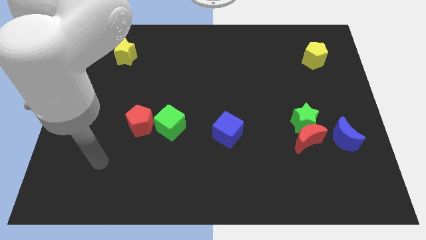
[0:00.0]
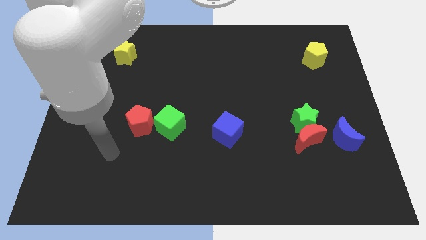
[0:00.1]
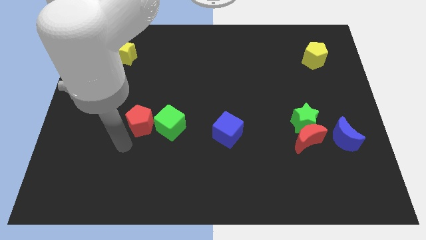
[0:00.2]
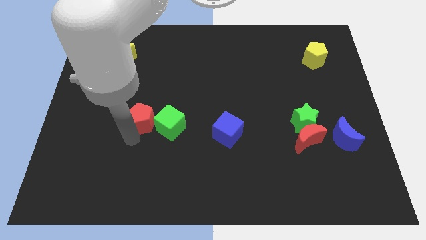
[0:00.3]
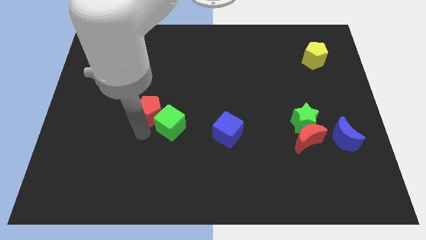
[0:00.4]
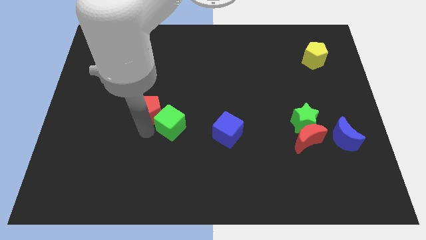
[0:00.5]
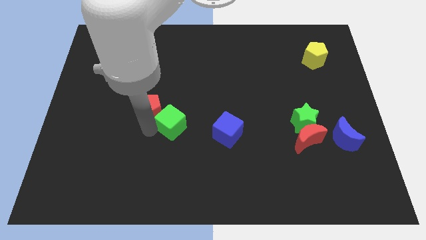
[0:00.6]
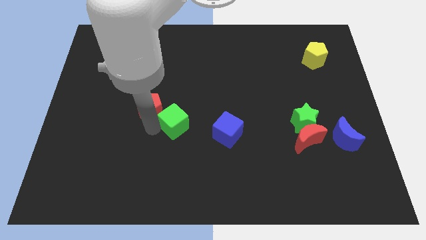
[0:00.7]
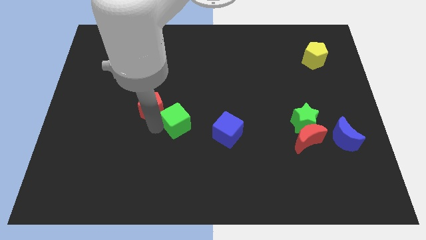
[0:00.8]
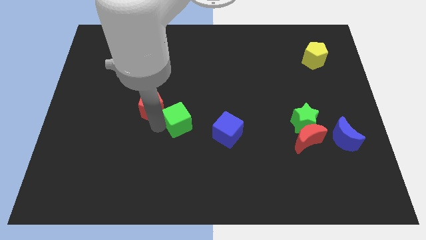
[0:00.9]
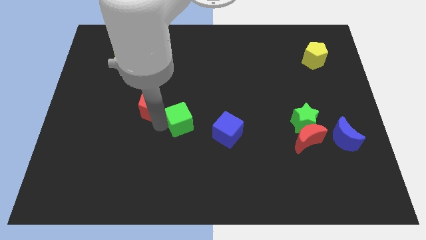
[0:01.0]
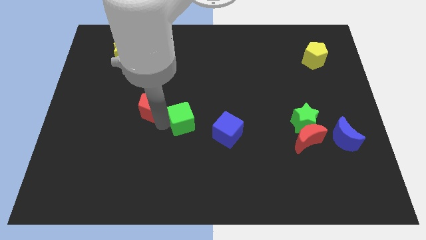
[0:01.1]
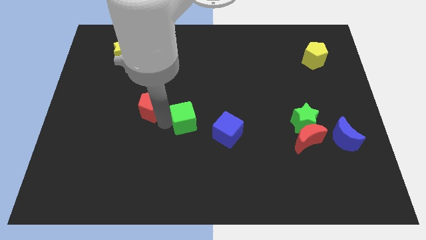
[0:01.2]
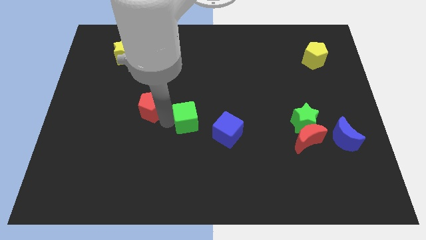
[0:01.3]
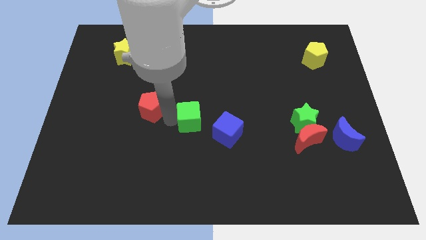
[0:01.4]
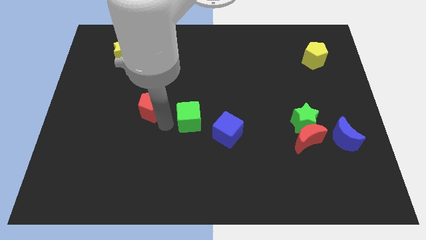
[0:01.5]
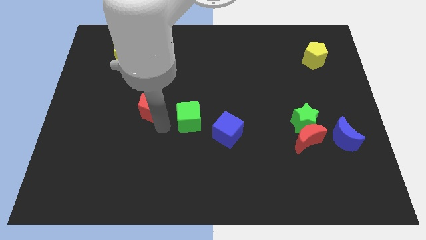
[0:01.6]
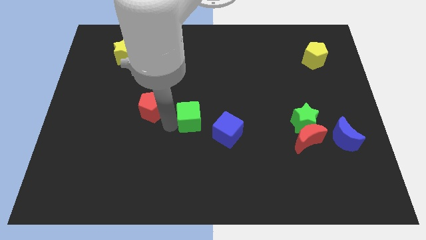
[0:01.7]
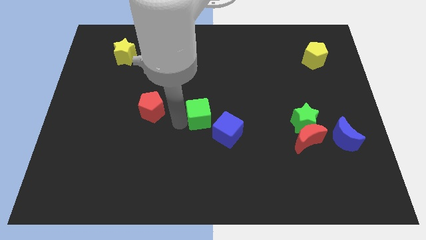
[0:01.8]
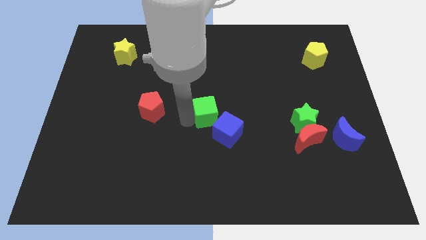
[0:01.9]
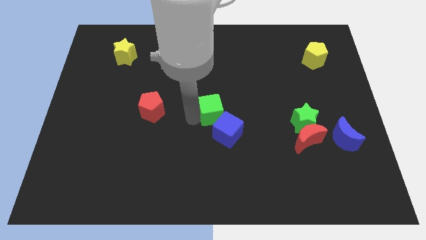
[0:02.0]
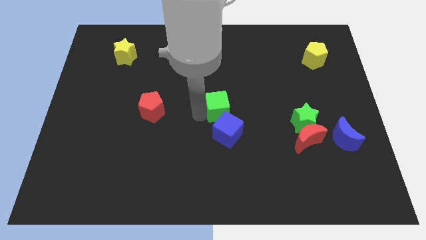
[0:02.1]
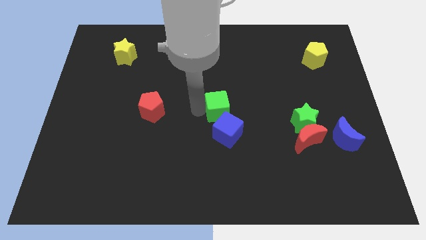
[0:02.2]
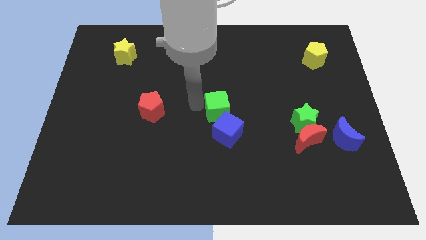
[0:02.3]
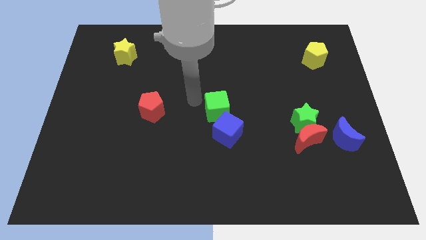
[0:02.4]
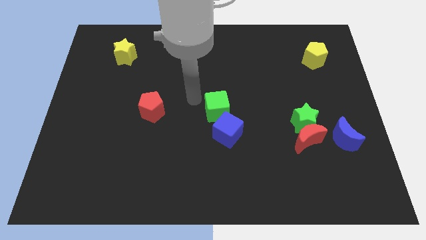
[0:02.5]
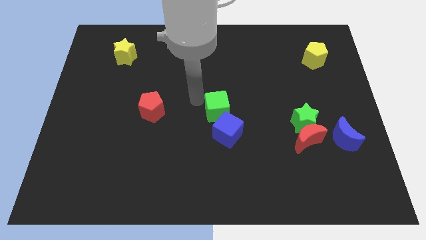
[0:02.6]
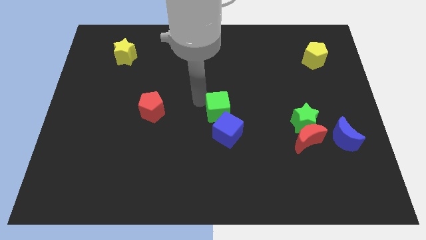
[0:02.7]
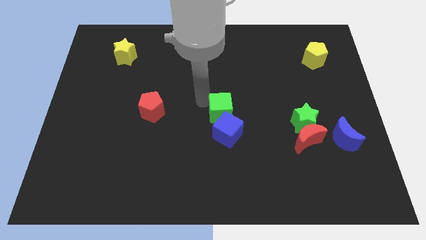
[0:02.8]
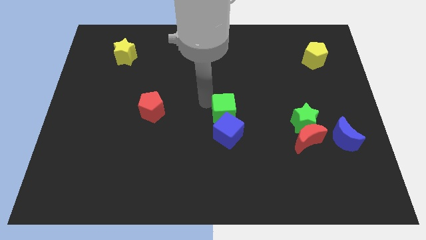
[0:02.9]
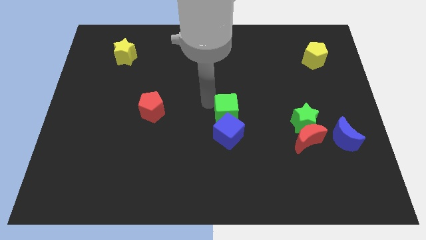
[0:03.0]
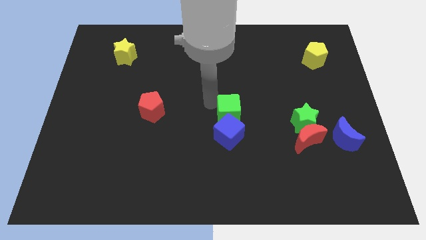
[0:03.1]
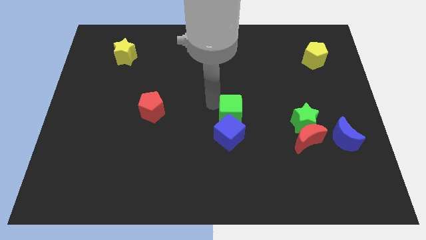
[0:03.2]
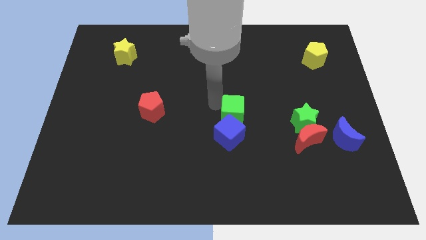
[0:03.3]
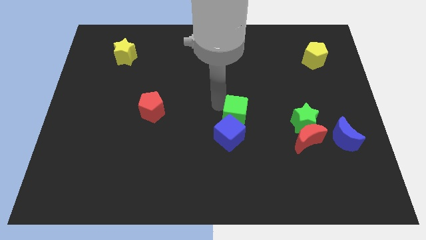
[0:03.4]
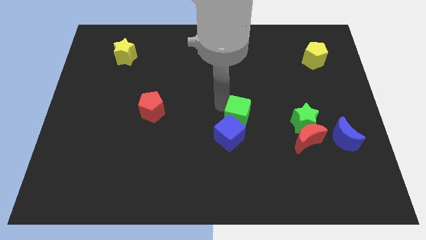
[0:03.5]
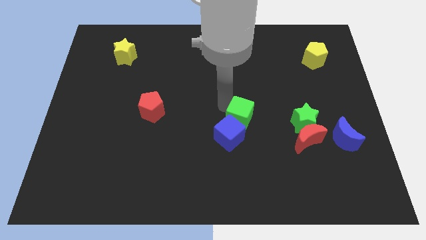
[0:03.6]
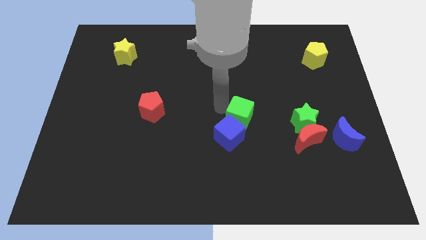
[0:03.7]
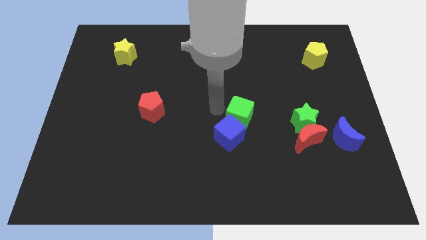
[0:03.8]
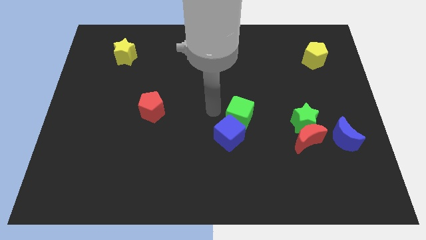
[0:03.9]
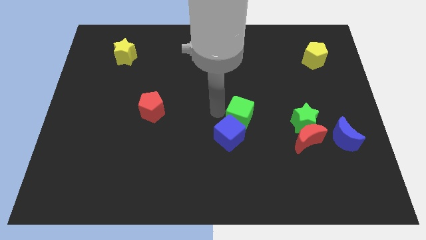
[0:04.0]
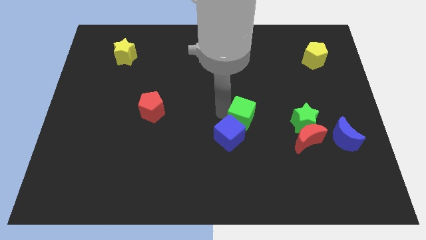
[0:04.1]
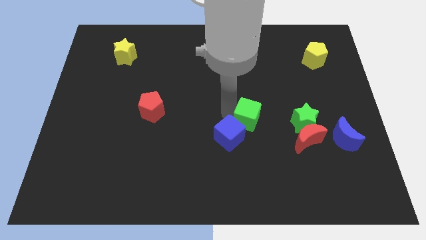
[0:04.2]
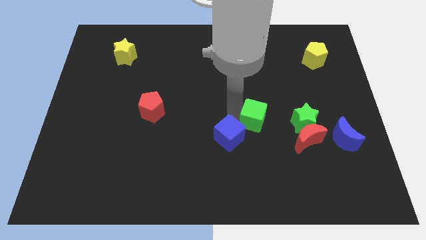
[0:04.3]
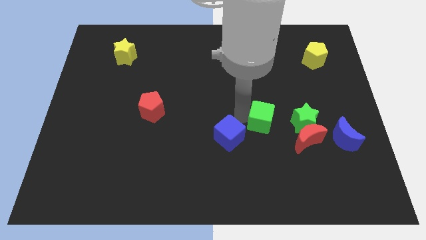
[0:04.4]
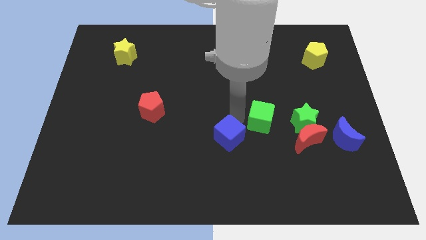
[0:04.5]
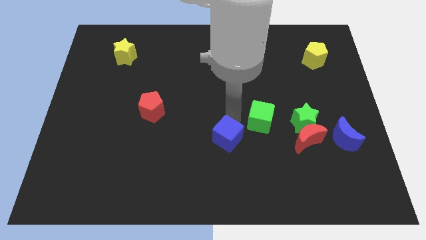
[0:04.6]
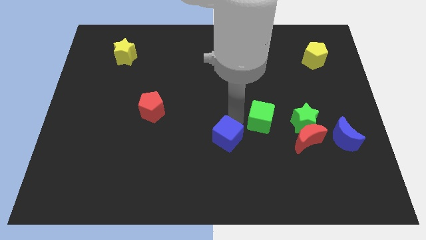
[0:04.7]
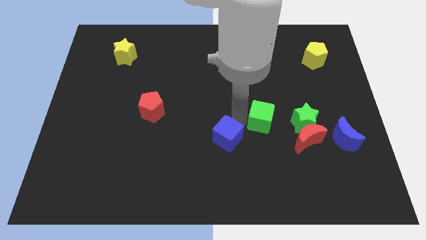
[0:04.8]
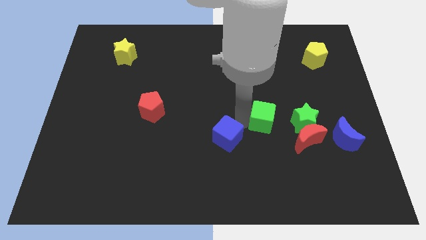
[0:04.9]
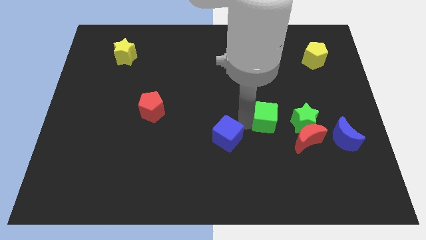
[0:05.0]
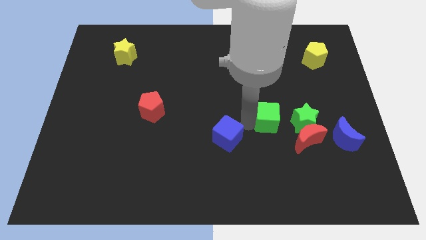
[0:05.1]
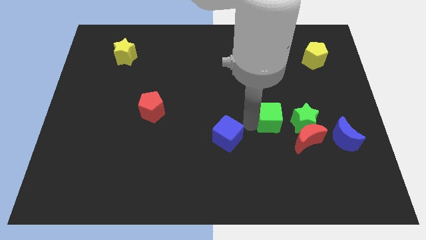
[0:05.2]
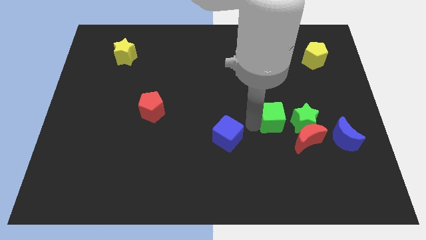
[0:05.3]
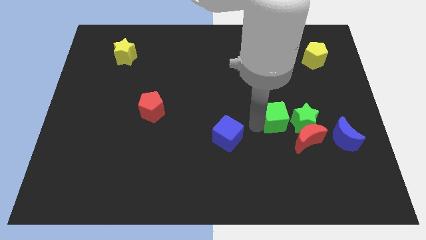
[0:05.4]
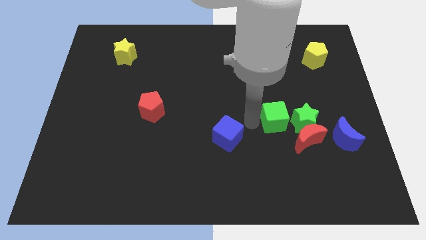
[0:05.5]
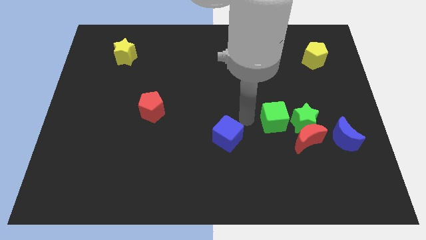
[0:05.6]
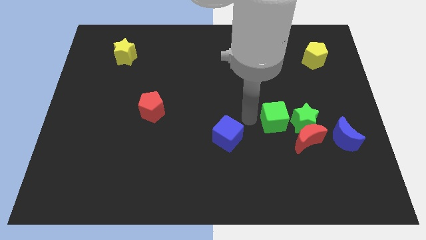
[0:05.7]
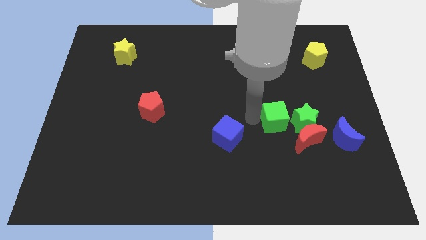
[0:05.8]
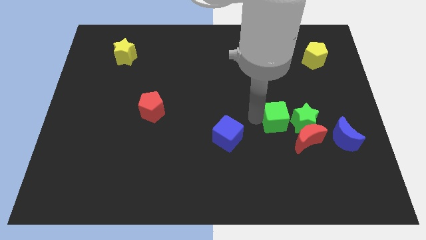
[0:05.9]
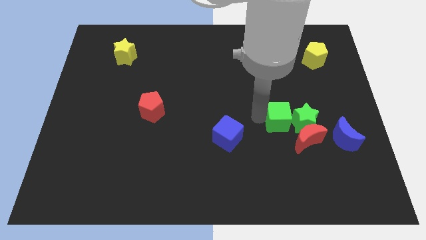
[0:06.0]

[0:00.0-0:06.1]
move the green cube to the green star

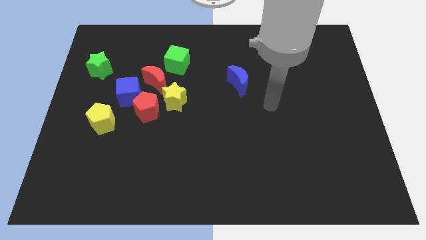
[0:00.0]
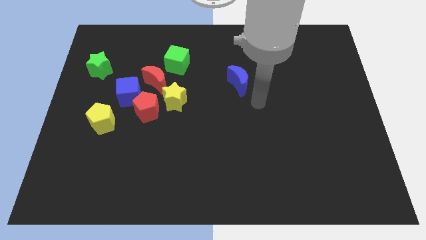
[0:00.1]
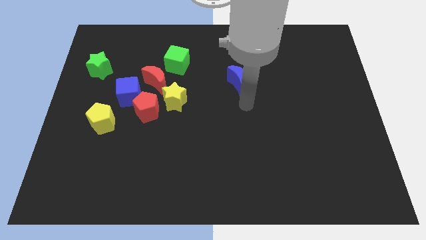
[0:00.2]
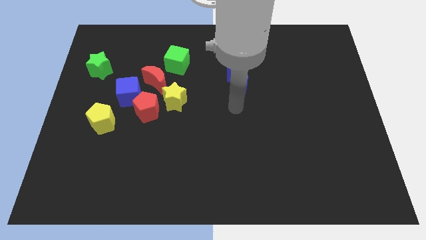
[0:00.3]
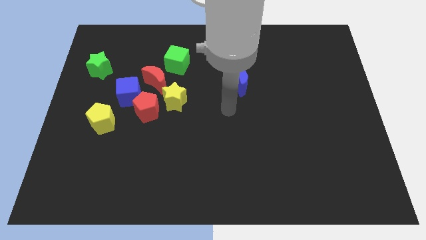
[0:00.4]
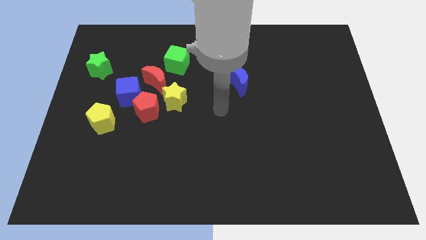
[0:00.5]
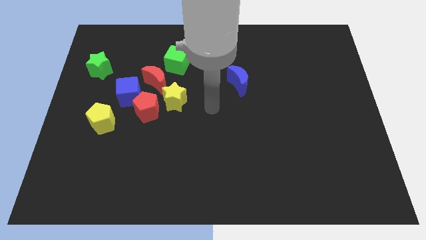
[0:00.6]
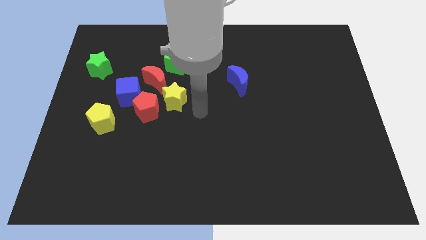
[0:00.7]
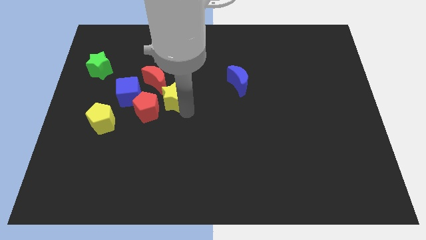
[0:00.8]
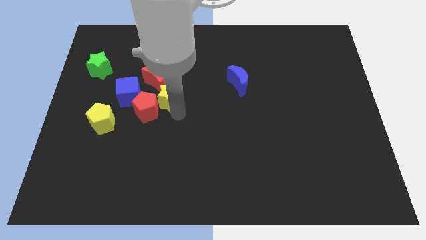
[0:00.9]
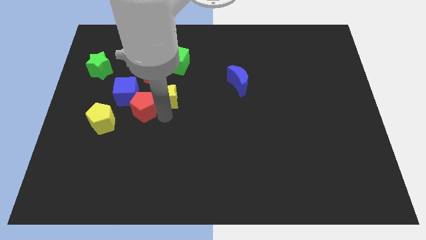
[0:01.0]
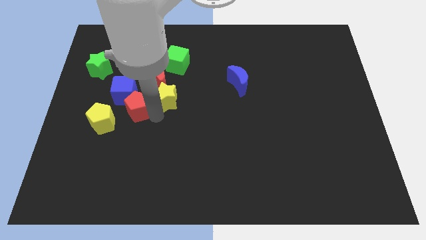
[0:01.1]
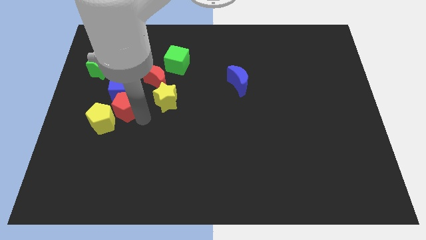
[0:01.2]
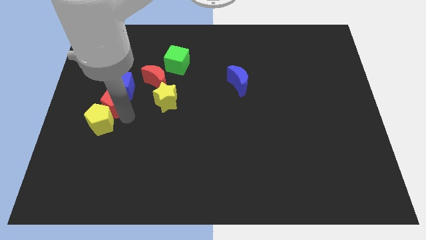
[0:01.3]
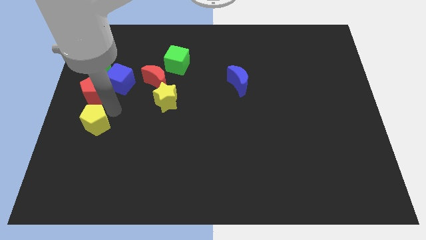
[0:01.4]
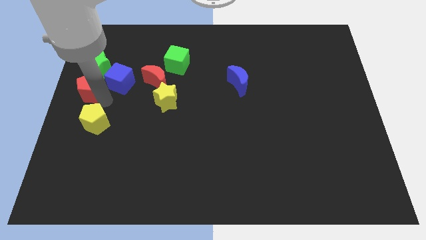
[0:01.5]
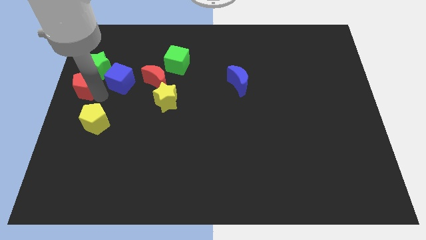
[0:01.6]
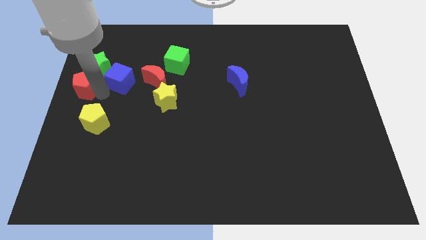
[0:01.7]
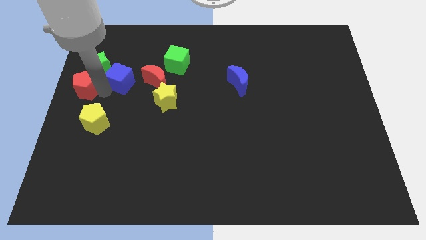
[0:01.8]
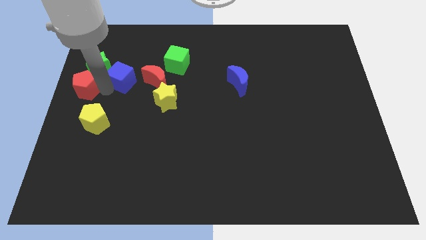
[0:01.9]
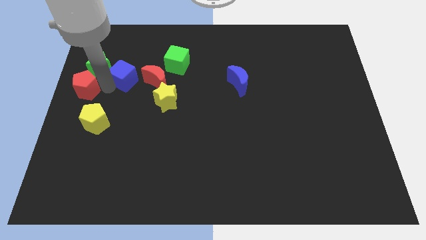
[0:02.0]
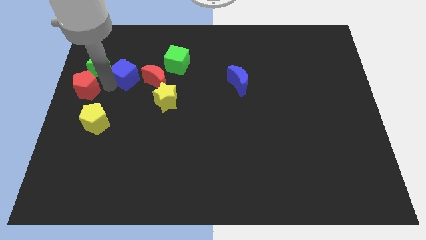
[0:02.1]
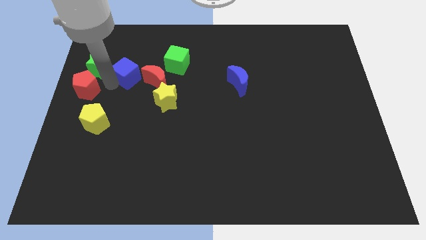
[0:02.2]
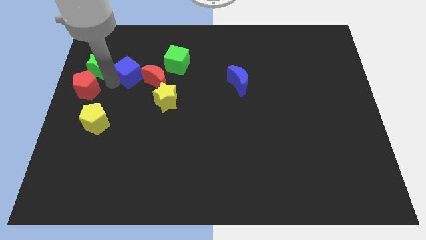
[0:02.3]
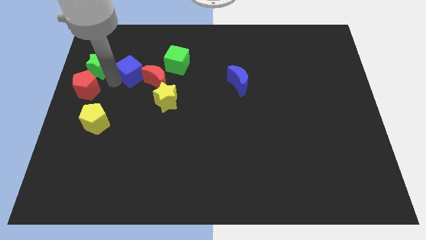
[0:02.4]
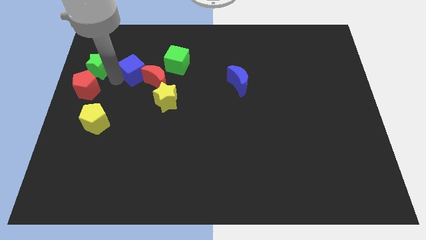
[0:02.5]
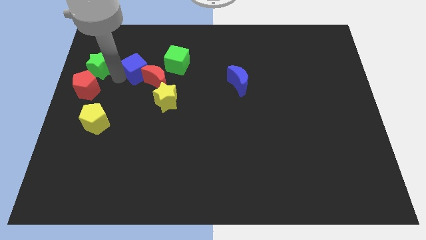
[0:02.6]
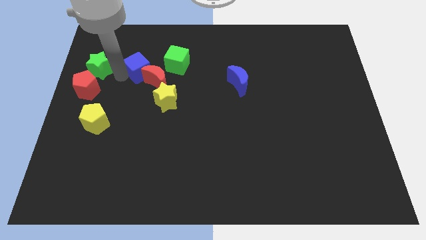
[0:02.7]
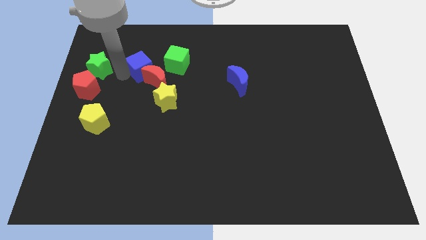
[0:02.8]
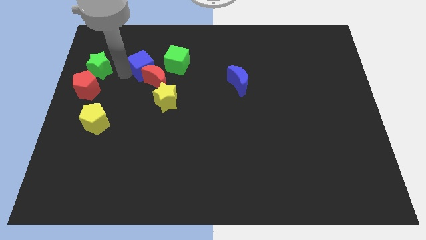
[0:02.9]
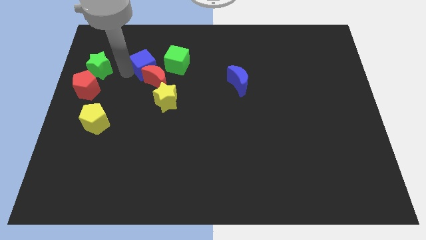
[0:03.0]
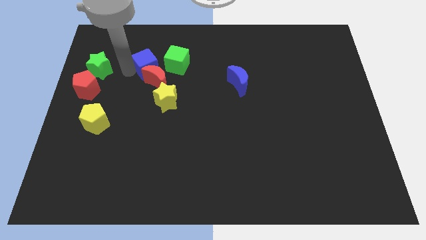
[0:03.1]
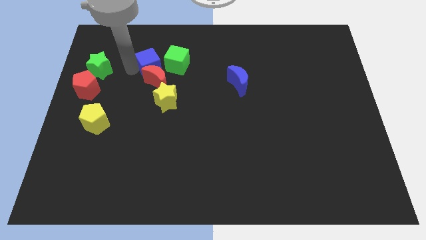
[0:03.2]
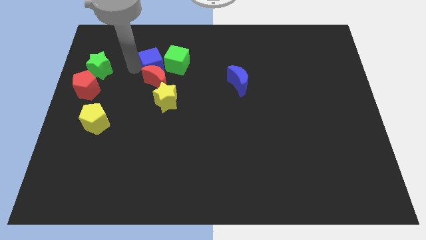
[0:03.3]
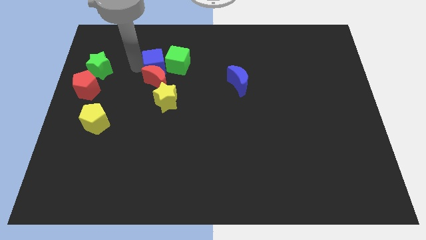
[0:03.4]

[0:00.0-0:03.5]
move the blue cube to the green cube
